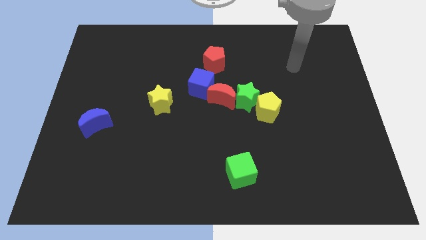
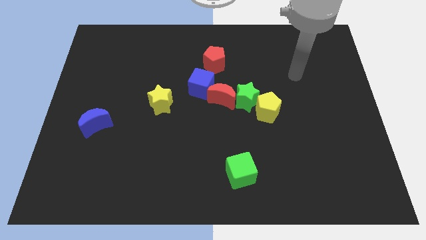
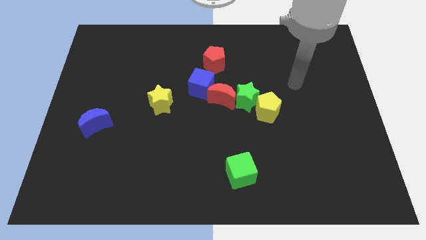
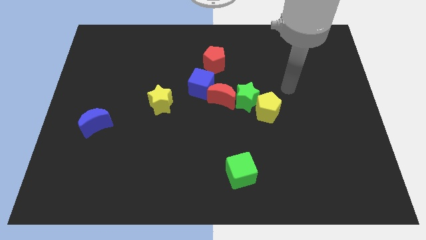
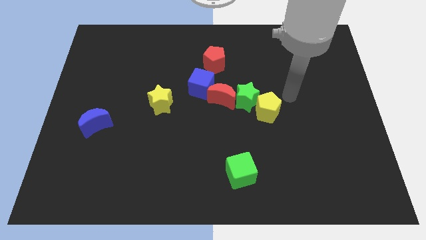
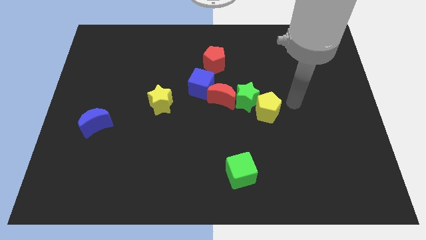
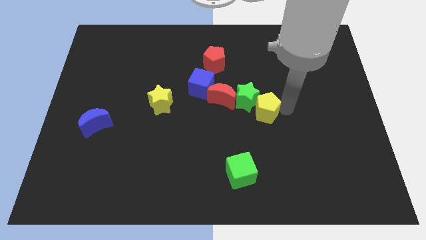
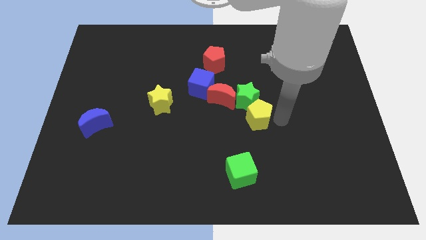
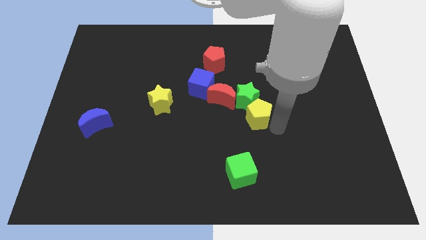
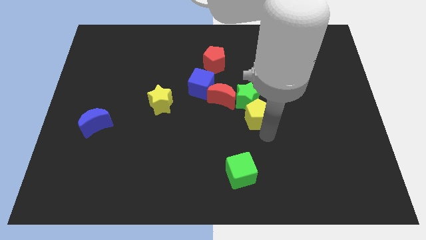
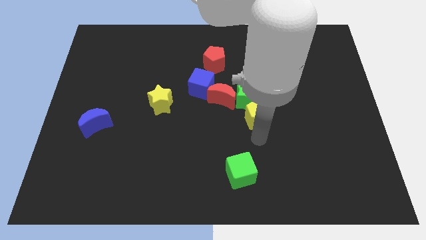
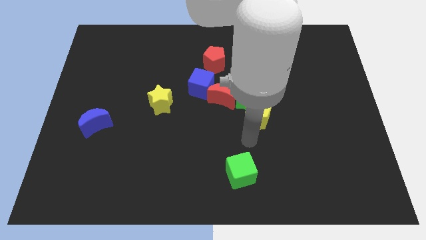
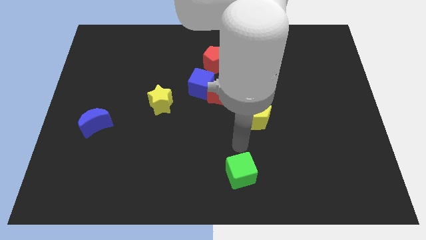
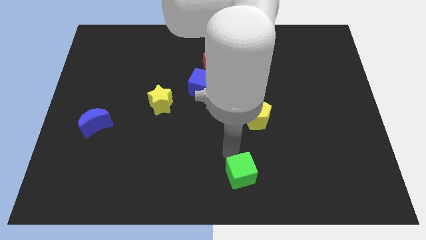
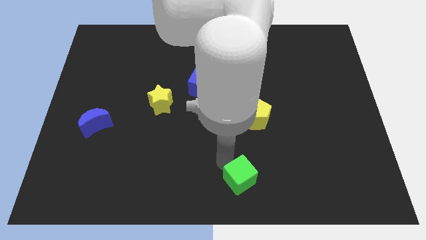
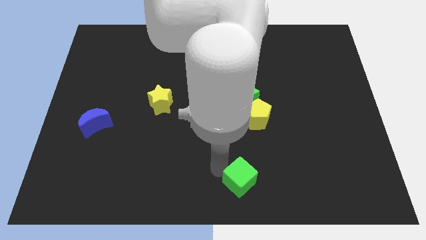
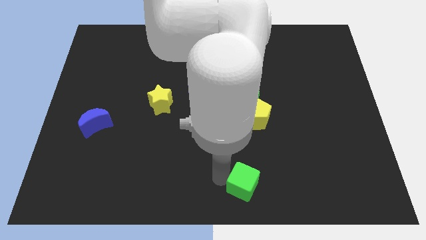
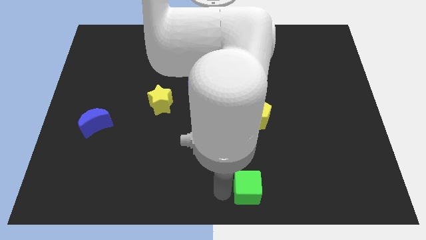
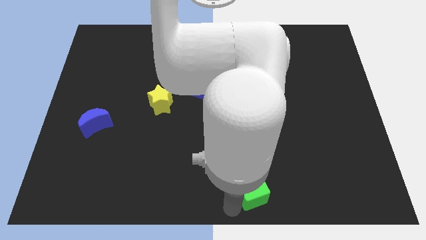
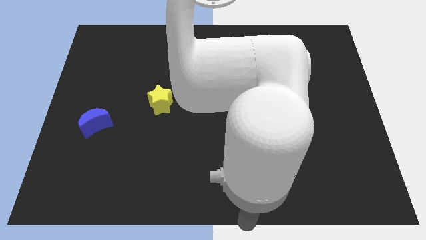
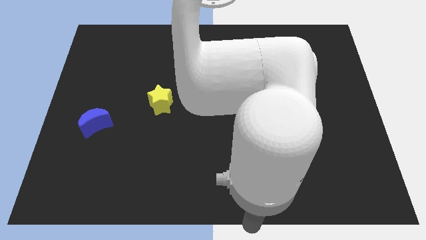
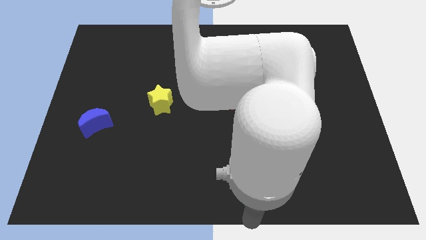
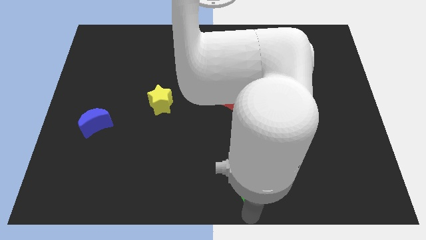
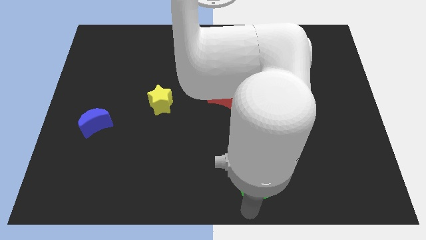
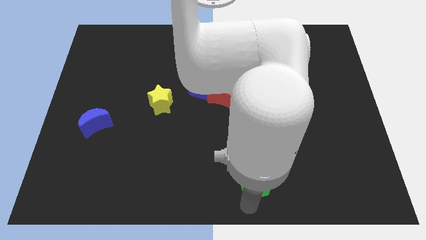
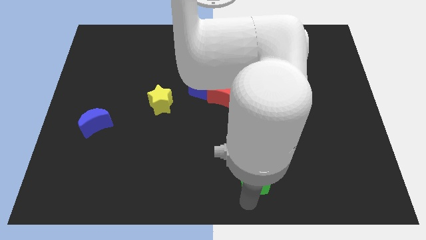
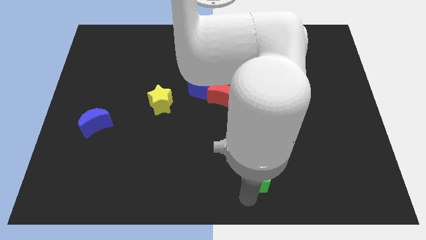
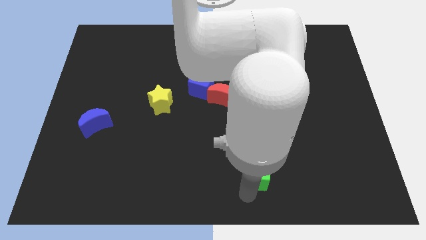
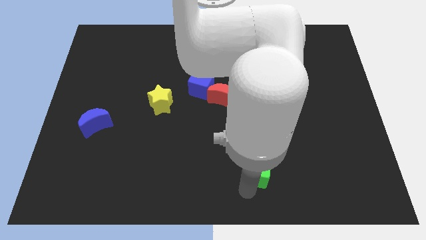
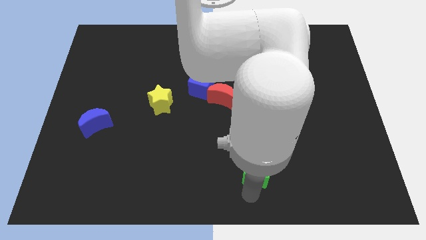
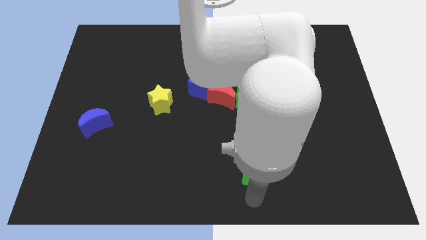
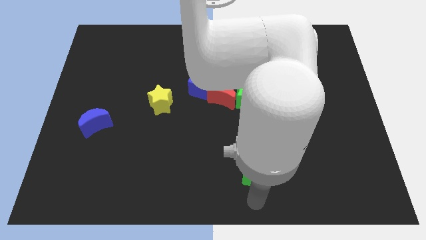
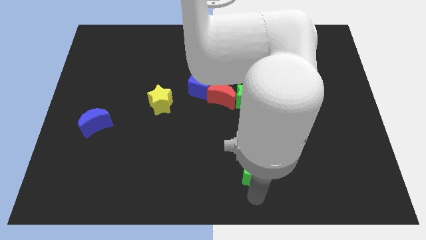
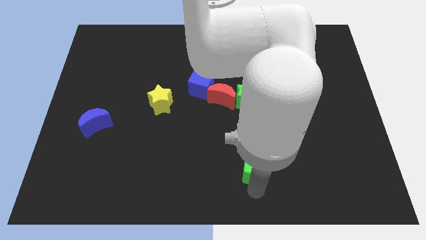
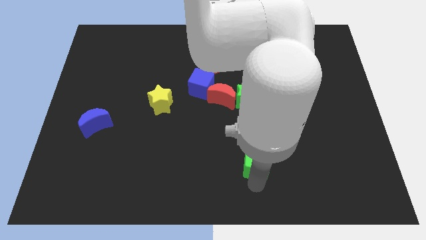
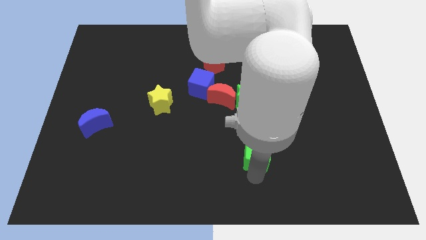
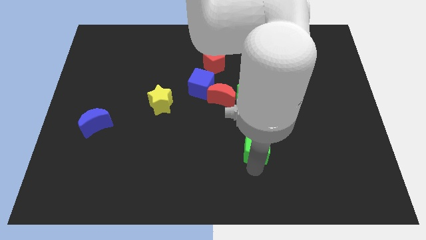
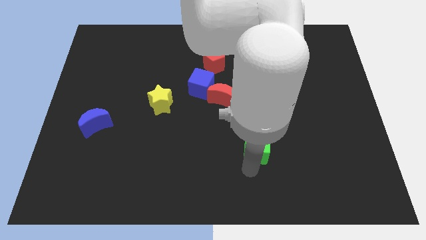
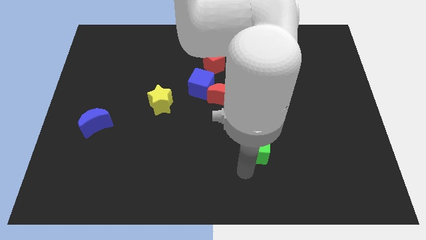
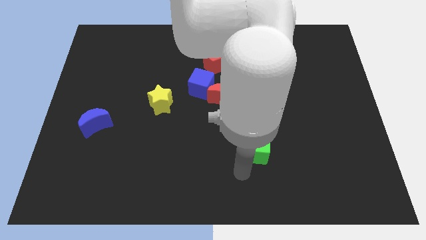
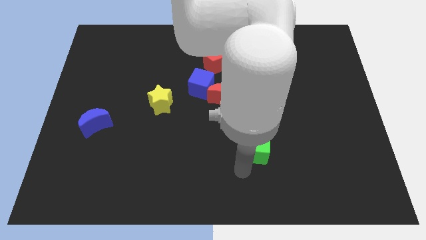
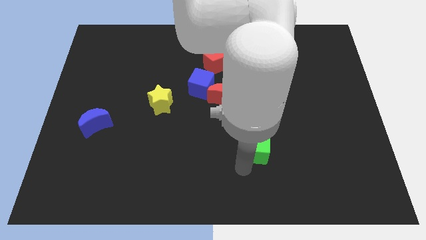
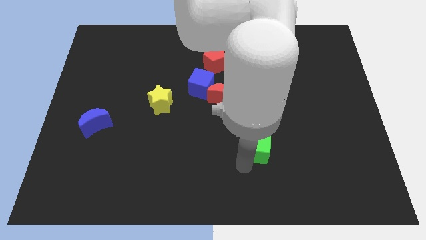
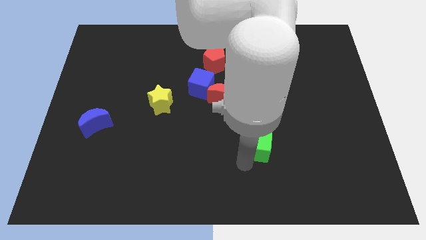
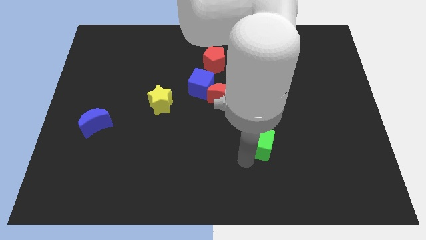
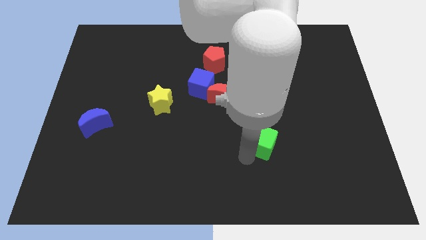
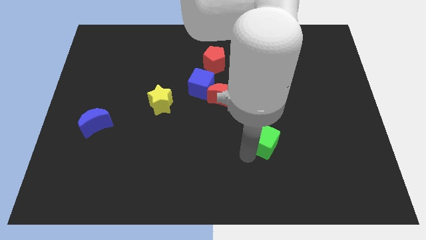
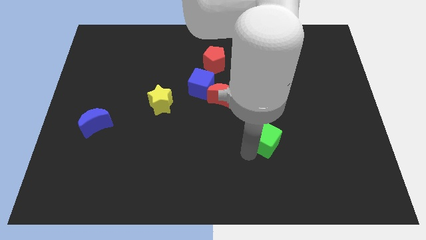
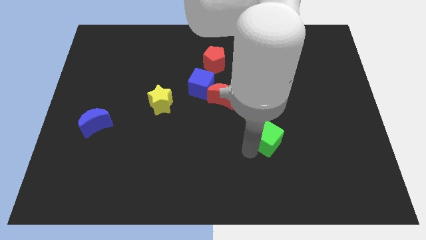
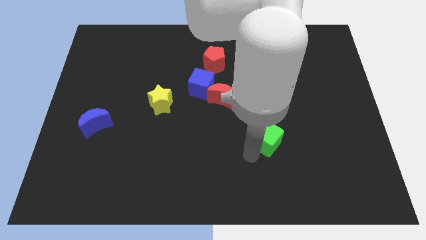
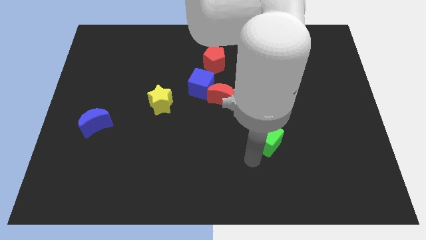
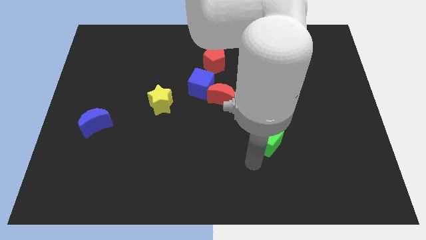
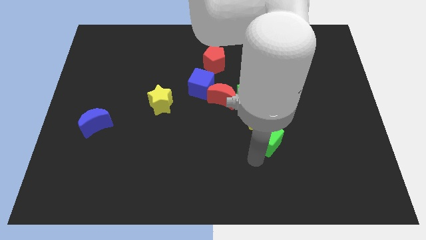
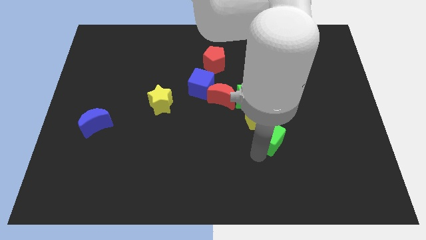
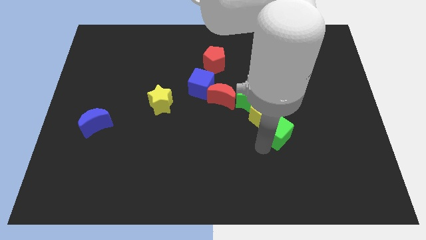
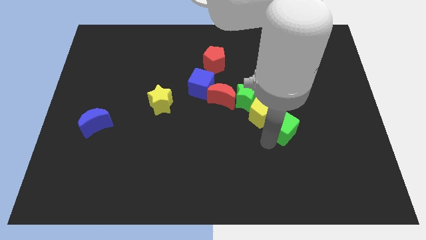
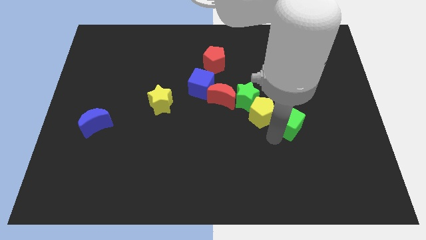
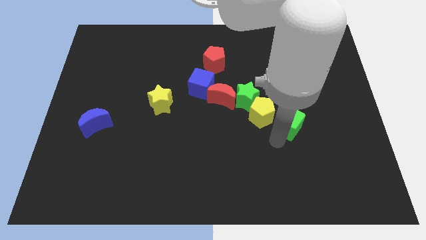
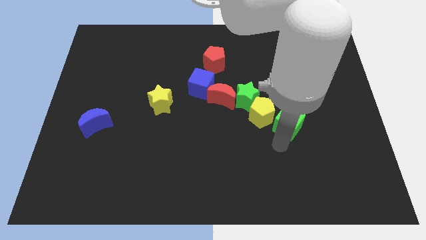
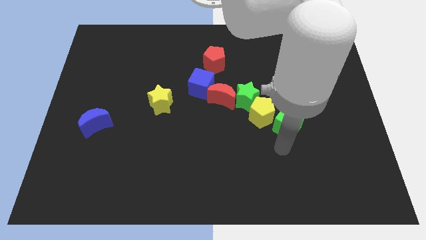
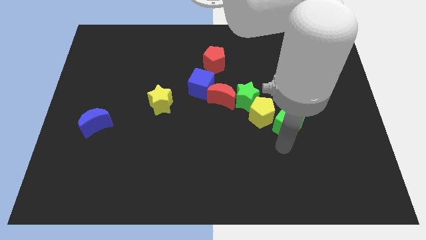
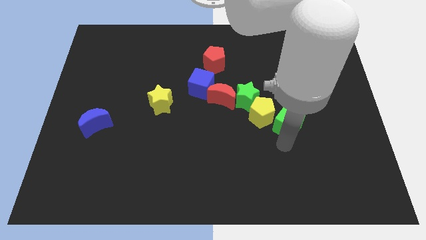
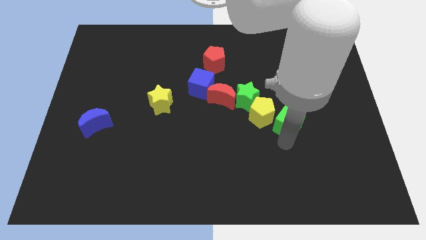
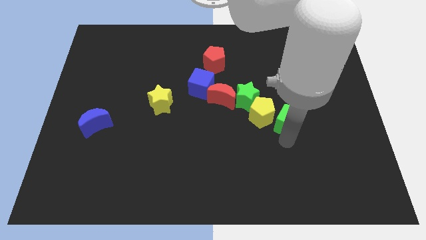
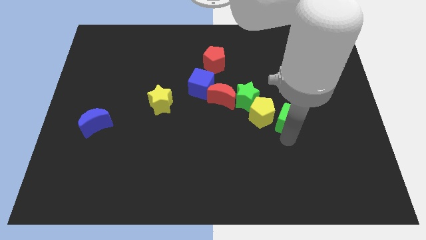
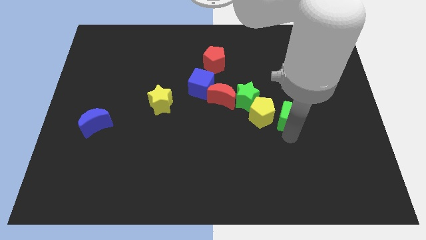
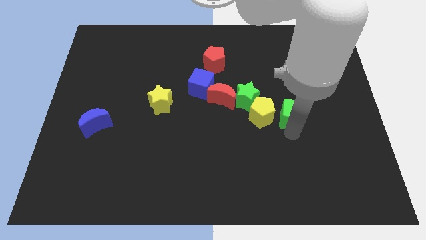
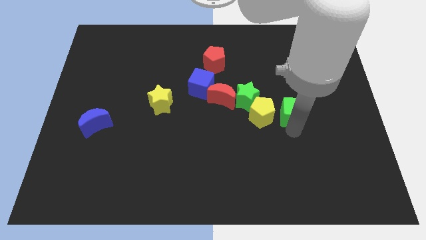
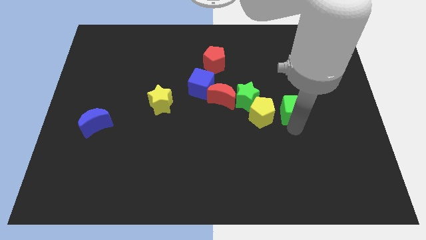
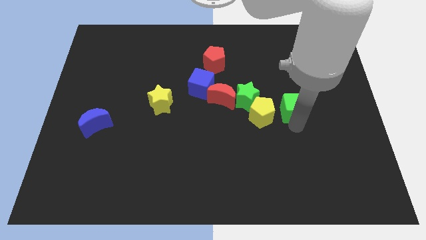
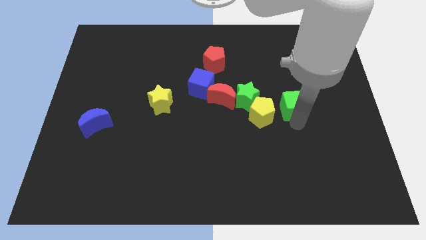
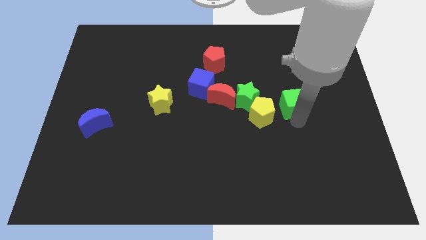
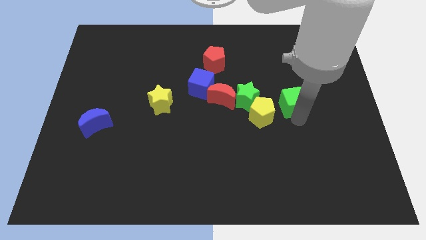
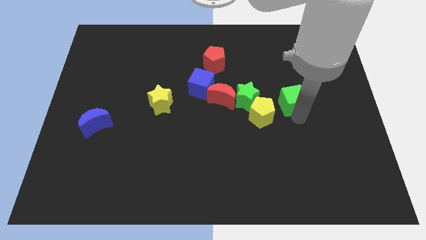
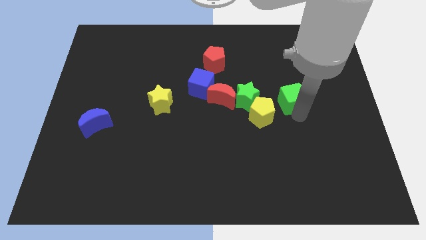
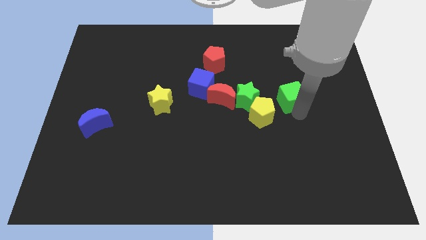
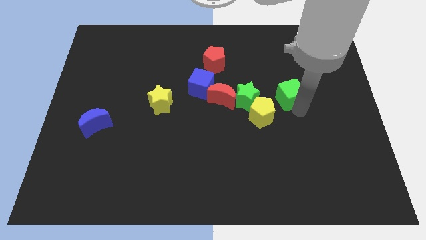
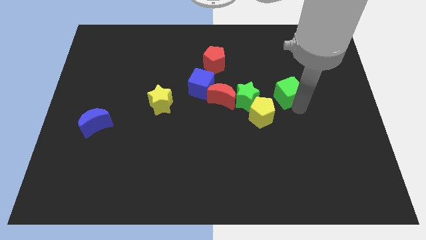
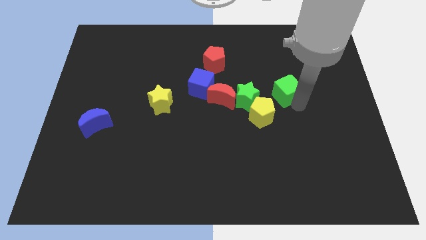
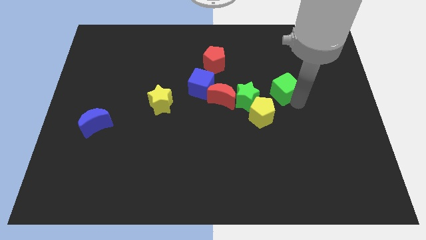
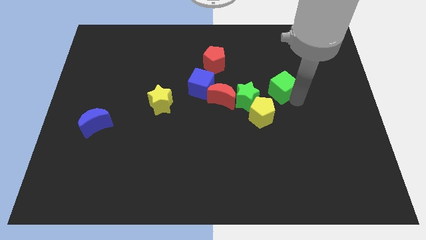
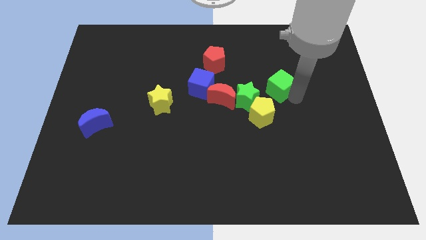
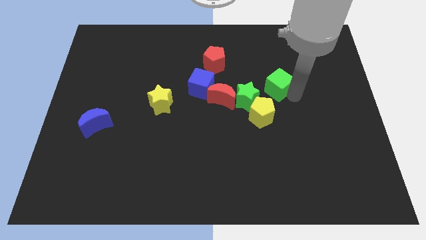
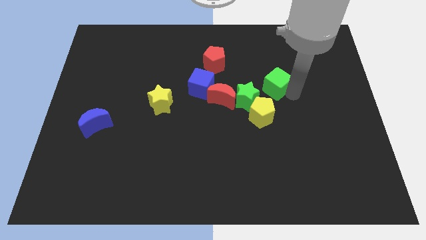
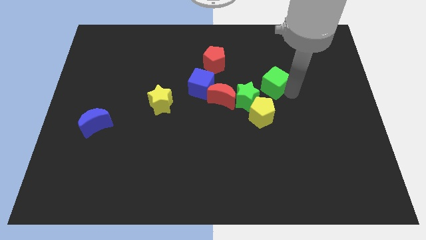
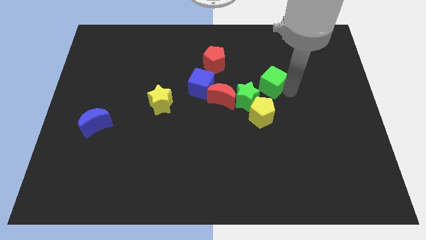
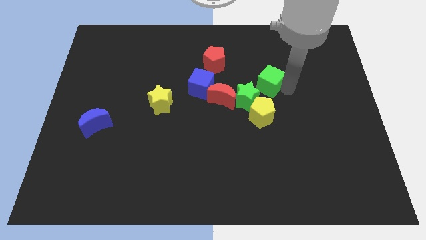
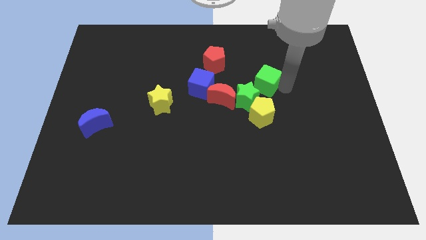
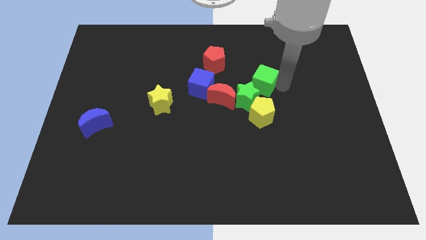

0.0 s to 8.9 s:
put the green cube diagonally up and to the right of the red moon
